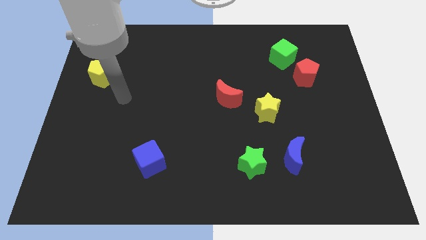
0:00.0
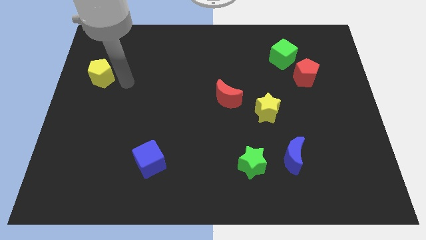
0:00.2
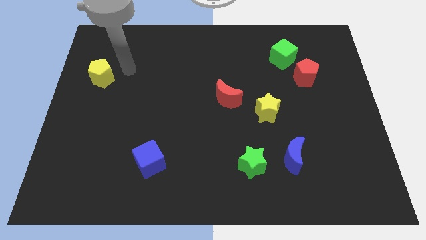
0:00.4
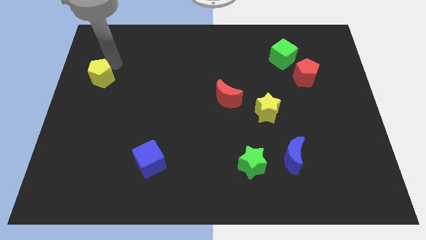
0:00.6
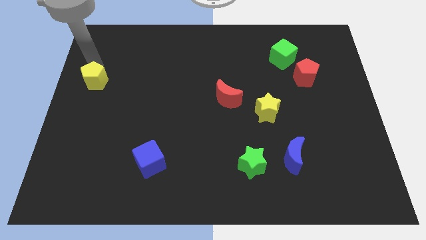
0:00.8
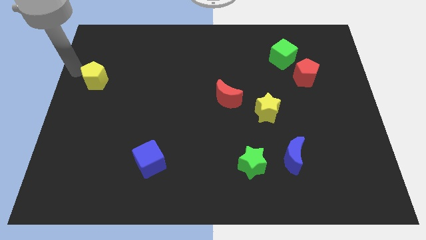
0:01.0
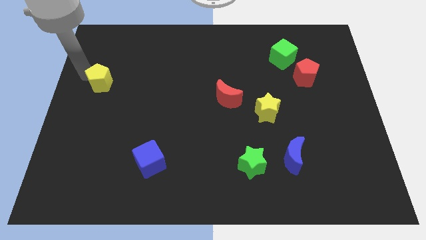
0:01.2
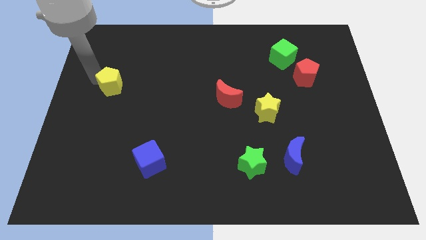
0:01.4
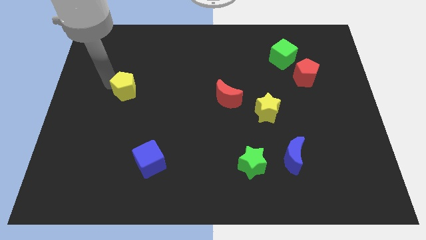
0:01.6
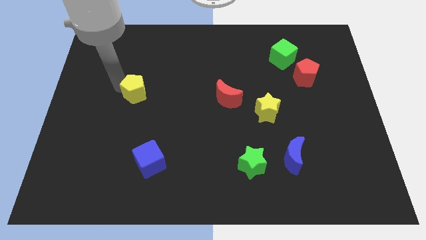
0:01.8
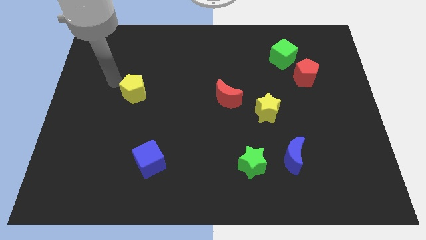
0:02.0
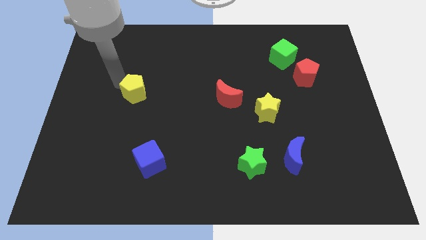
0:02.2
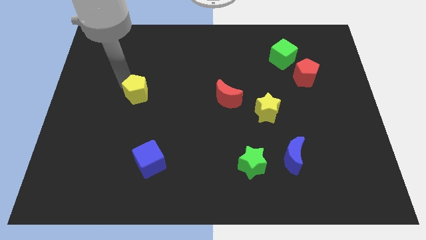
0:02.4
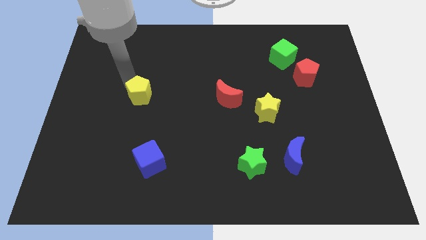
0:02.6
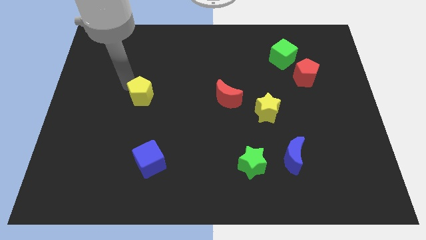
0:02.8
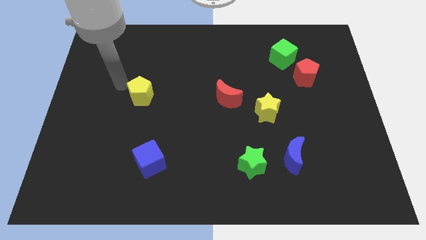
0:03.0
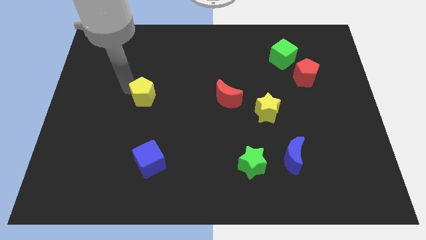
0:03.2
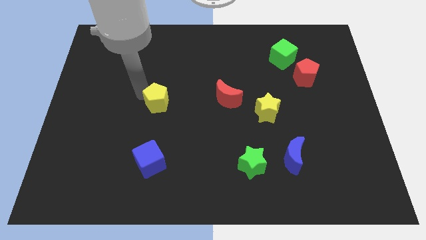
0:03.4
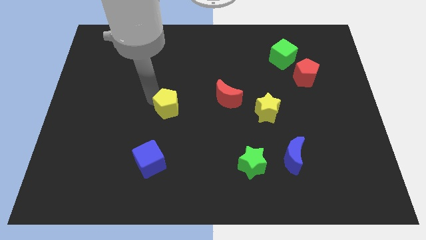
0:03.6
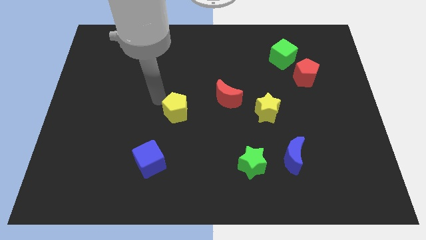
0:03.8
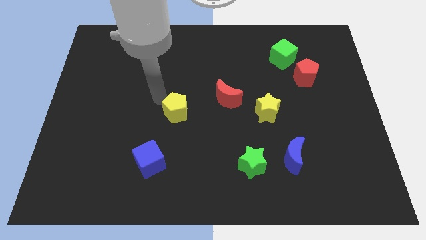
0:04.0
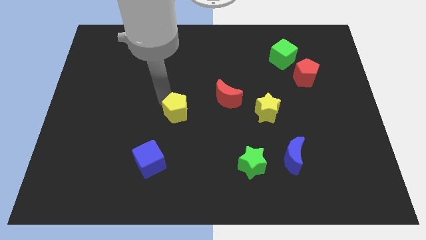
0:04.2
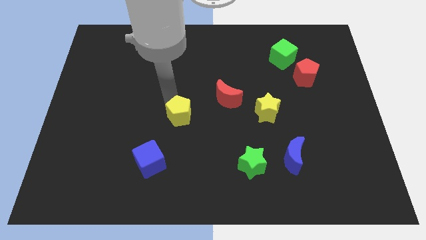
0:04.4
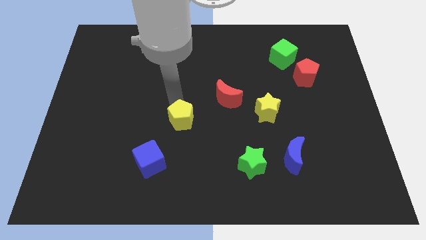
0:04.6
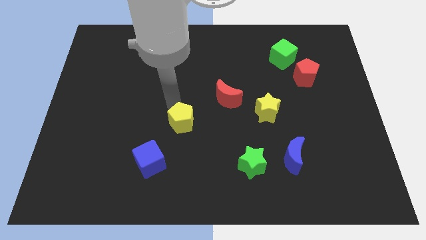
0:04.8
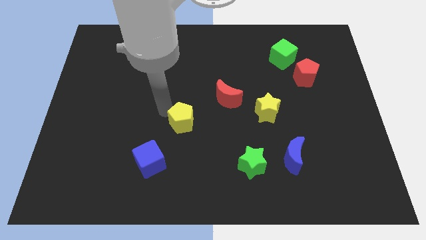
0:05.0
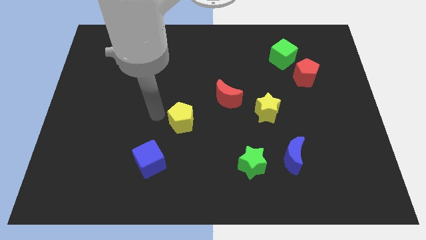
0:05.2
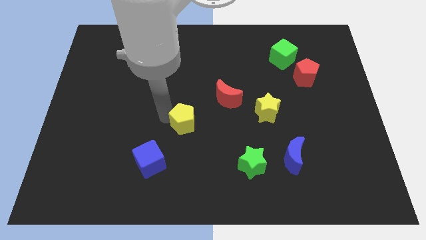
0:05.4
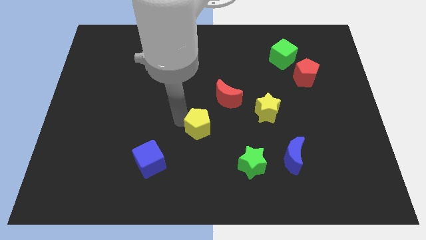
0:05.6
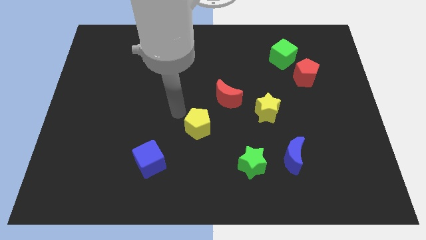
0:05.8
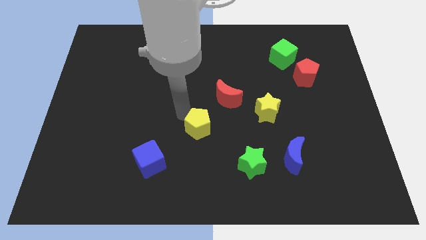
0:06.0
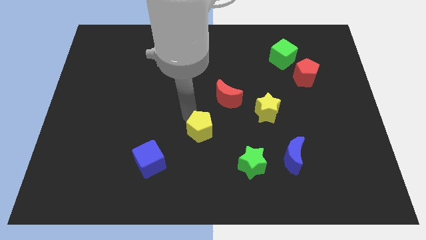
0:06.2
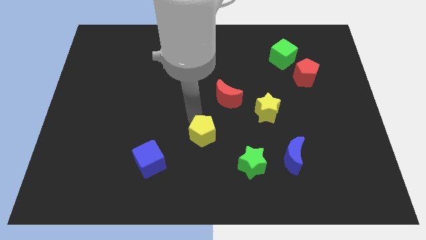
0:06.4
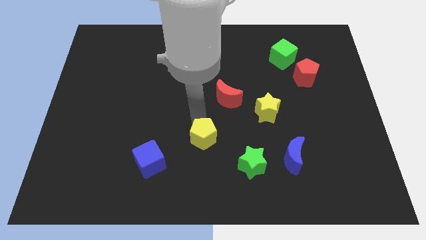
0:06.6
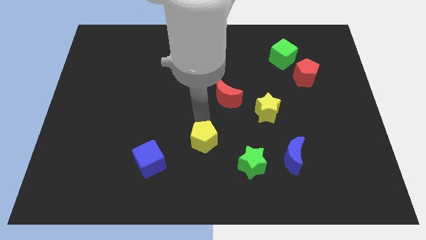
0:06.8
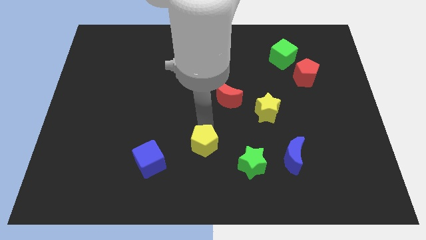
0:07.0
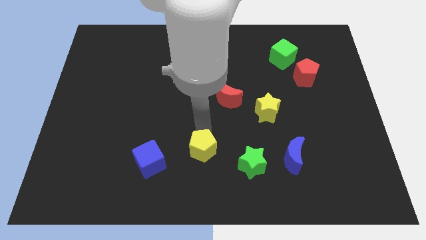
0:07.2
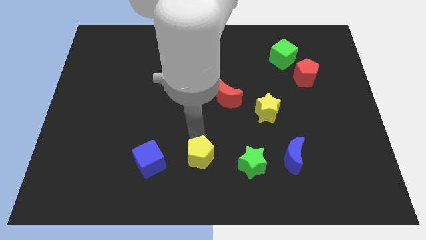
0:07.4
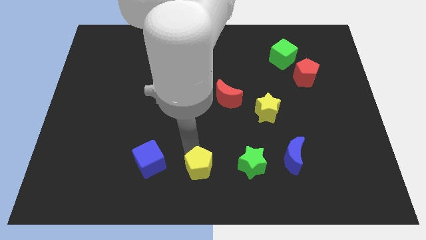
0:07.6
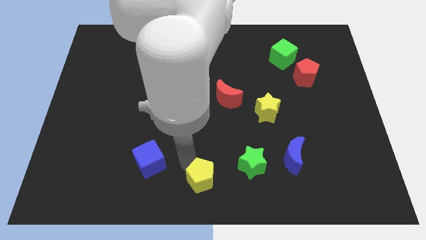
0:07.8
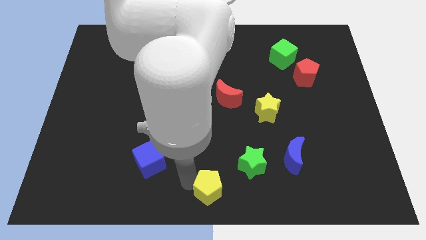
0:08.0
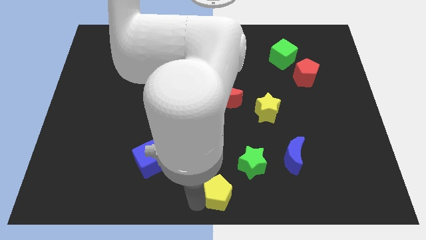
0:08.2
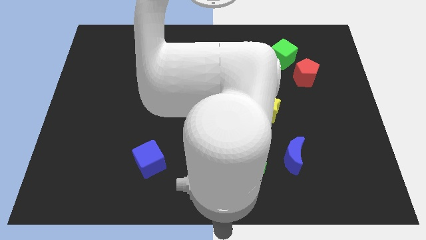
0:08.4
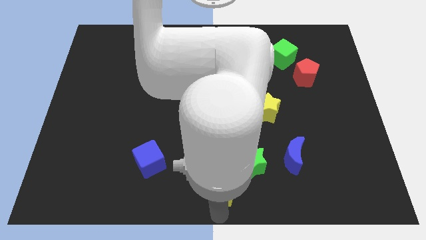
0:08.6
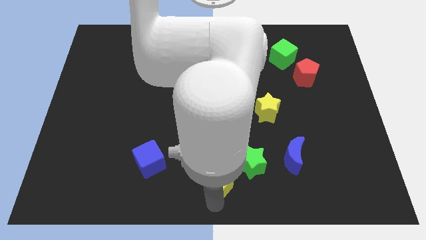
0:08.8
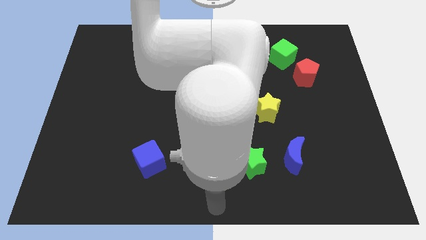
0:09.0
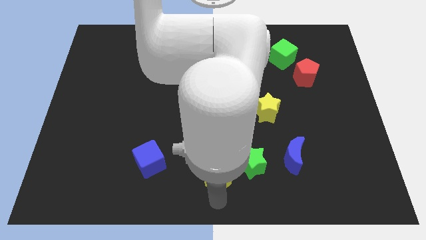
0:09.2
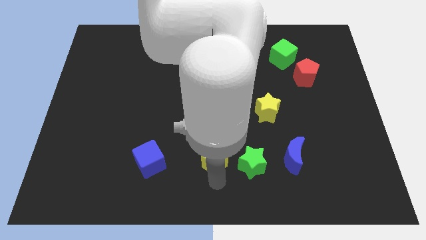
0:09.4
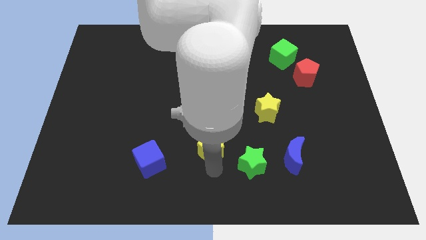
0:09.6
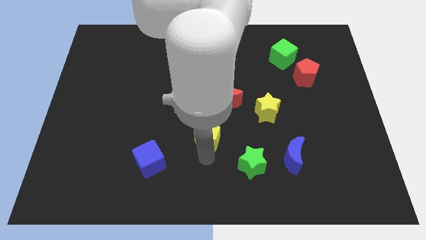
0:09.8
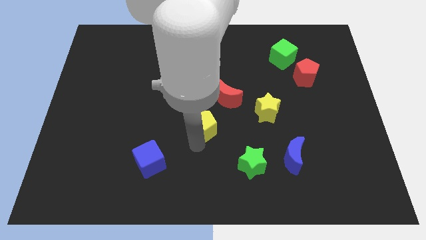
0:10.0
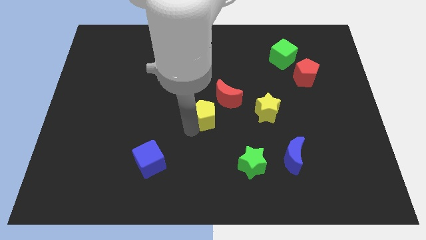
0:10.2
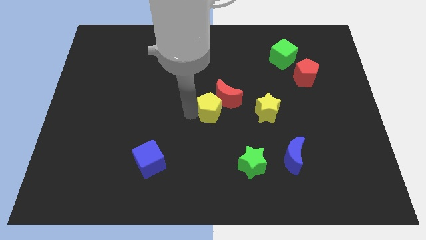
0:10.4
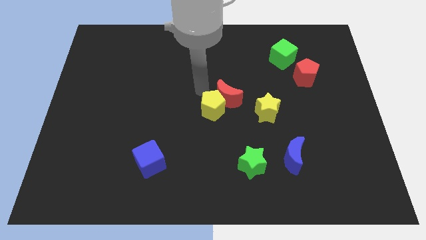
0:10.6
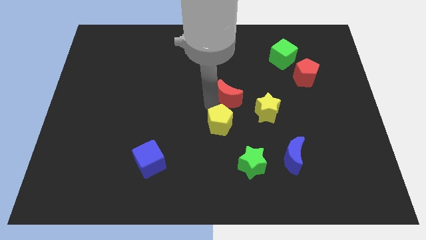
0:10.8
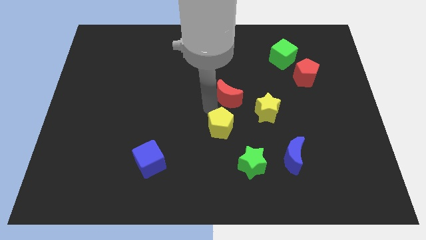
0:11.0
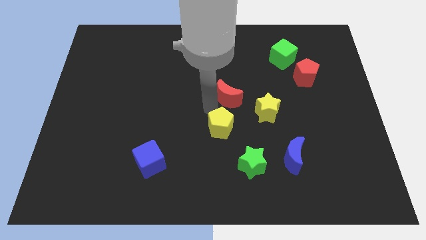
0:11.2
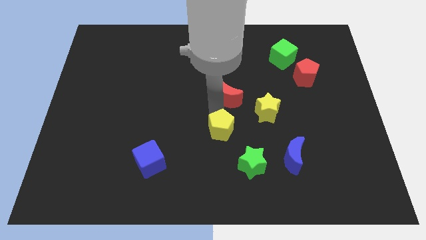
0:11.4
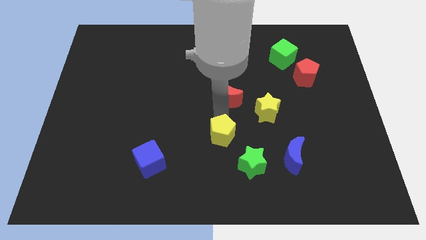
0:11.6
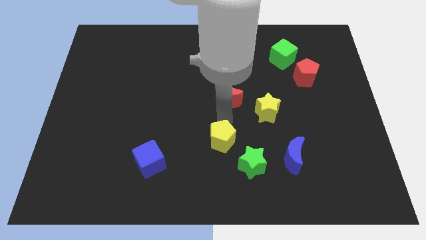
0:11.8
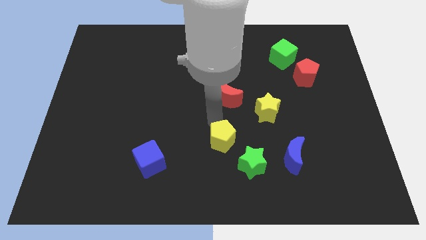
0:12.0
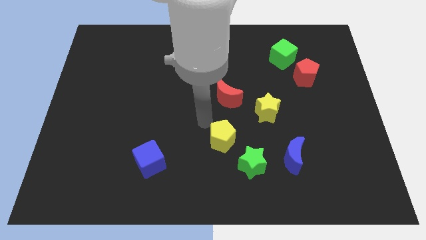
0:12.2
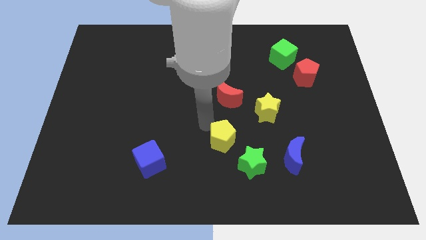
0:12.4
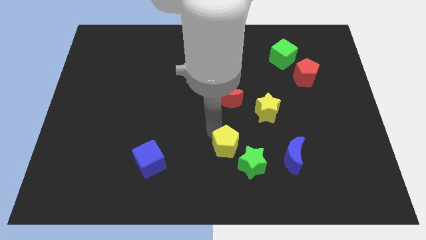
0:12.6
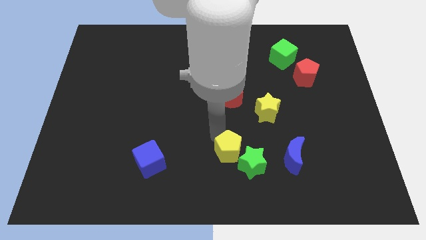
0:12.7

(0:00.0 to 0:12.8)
push the yellow pentagon towards the green star
